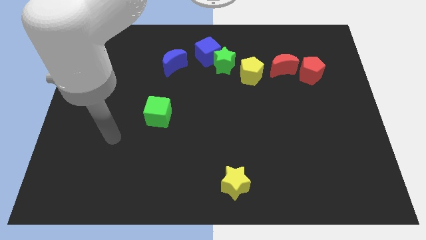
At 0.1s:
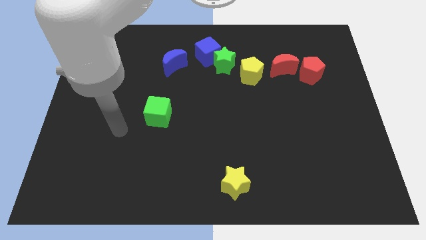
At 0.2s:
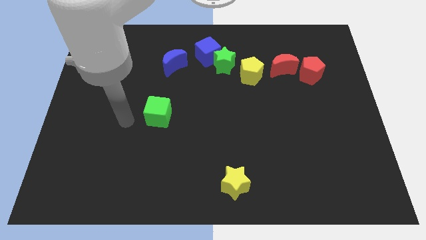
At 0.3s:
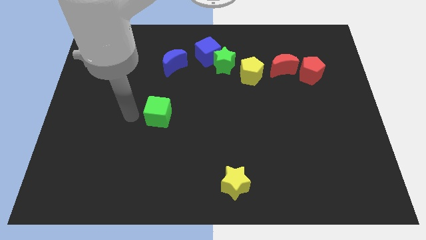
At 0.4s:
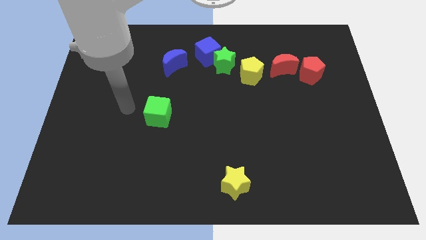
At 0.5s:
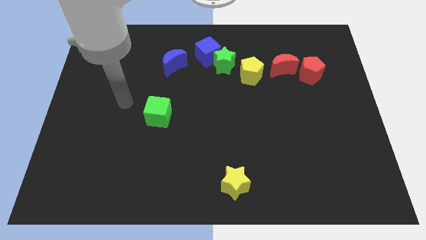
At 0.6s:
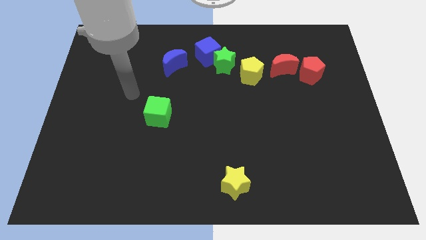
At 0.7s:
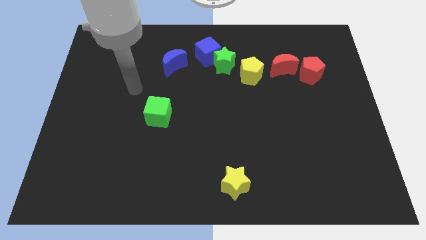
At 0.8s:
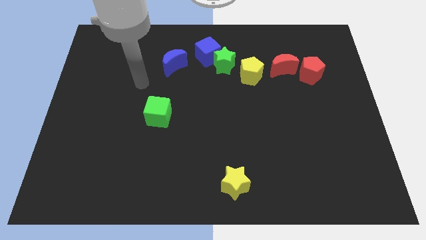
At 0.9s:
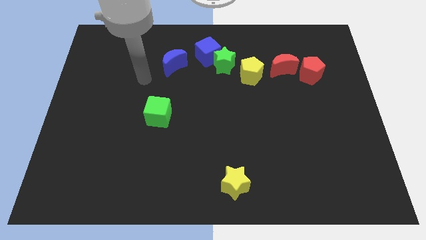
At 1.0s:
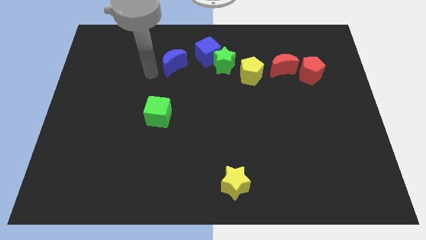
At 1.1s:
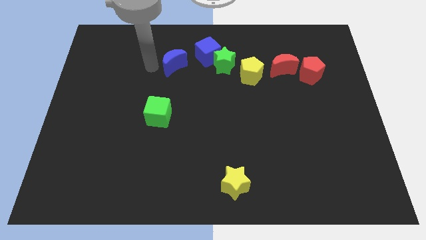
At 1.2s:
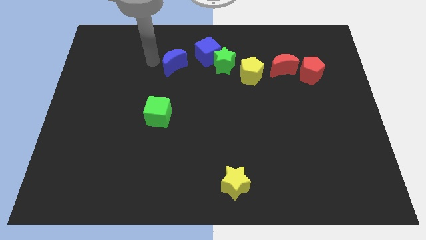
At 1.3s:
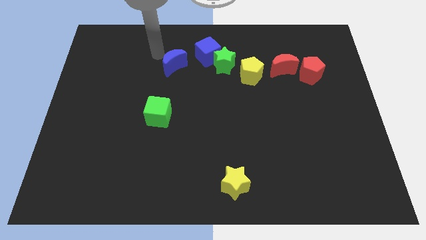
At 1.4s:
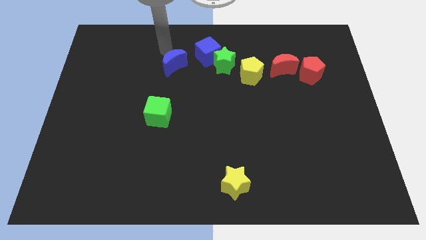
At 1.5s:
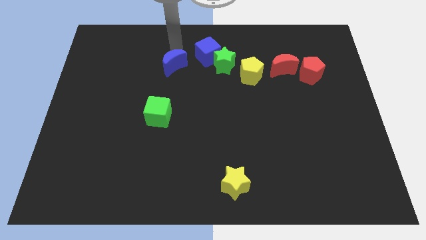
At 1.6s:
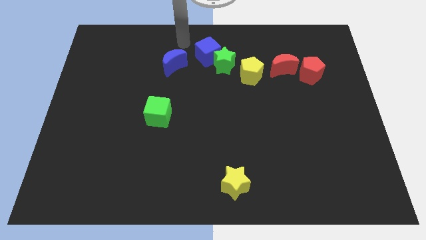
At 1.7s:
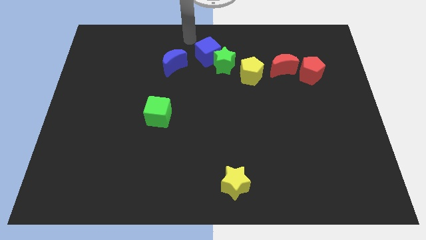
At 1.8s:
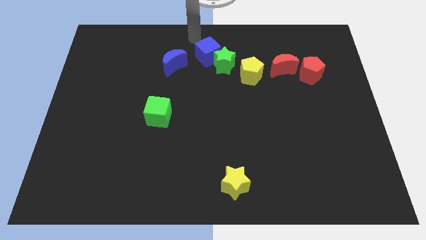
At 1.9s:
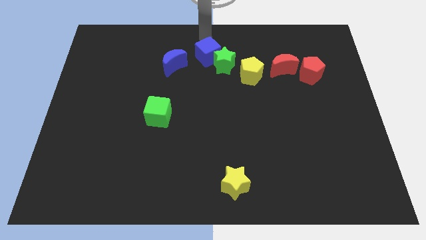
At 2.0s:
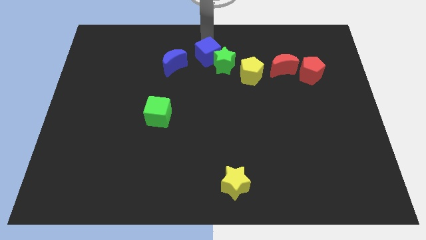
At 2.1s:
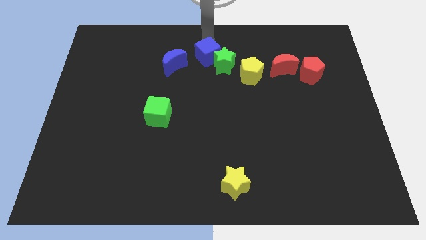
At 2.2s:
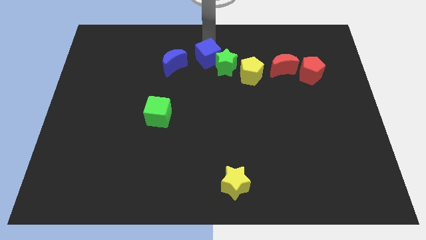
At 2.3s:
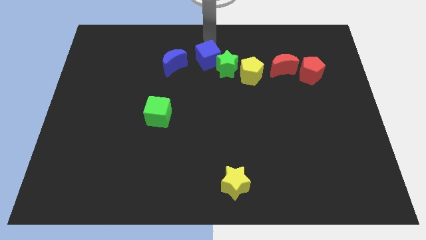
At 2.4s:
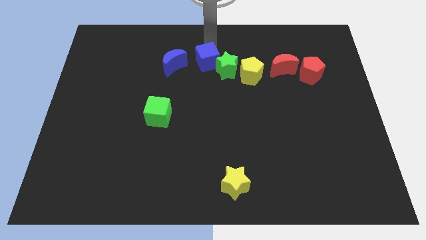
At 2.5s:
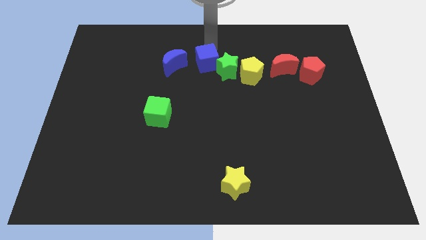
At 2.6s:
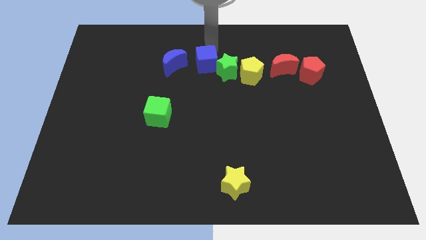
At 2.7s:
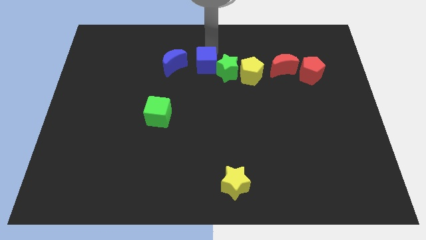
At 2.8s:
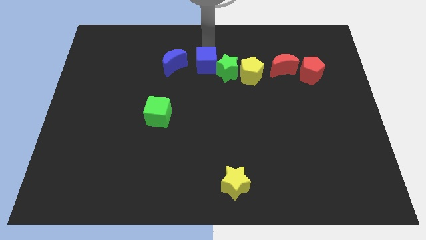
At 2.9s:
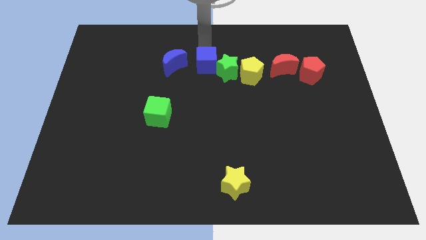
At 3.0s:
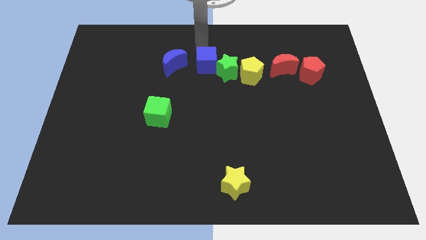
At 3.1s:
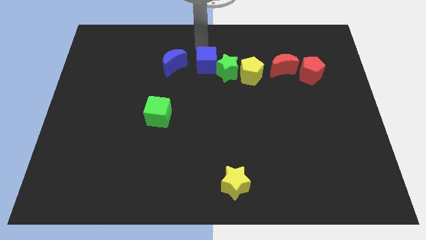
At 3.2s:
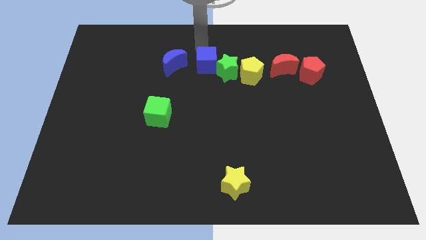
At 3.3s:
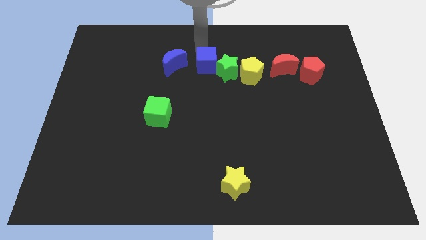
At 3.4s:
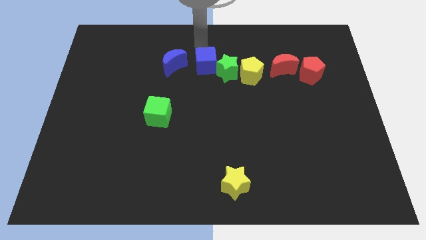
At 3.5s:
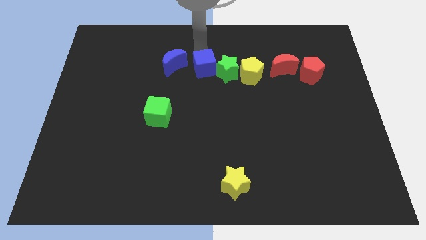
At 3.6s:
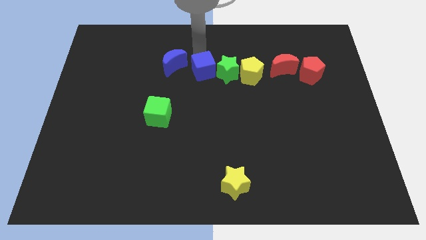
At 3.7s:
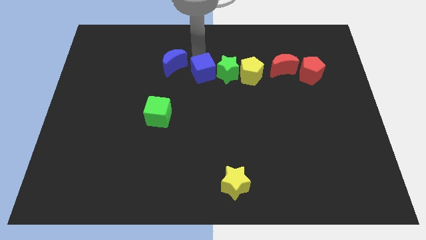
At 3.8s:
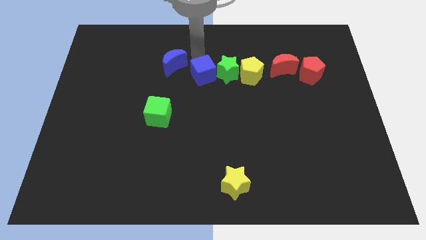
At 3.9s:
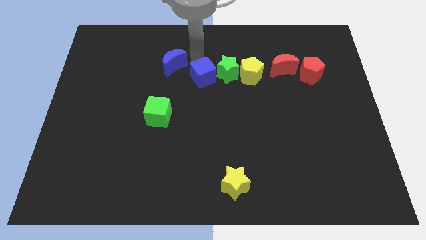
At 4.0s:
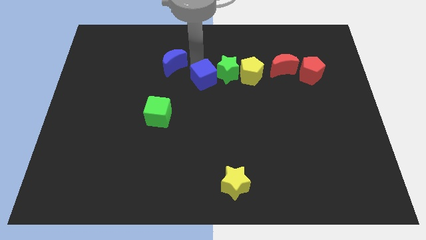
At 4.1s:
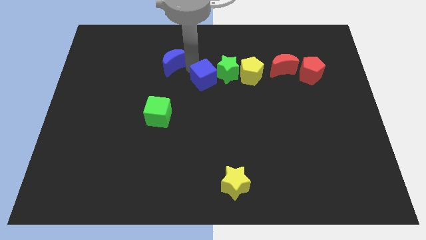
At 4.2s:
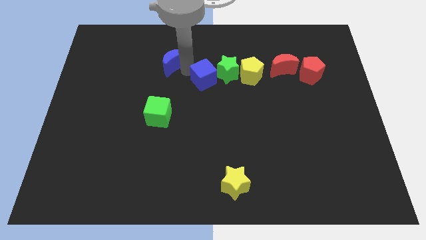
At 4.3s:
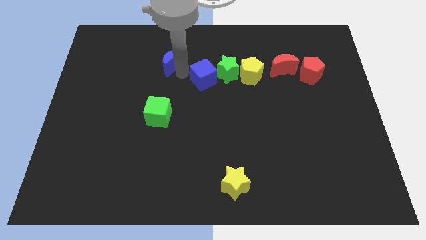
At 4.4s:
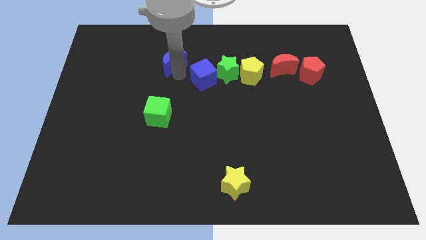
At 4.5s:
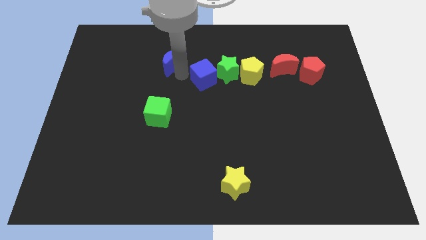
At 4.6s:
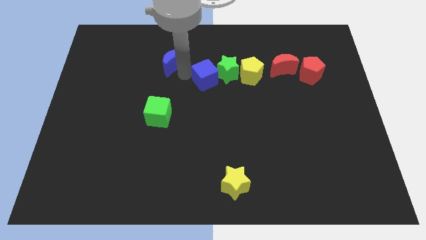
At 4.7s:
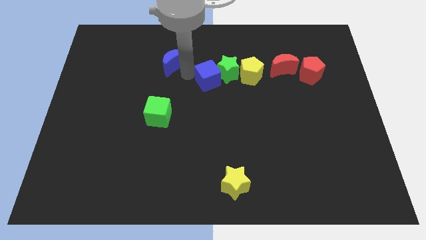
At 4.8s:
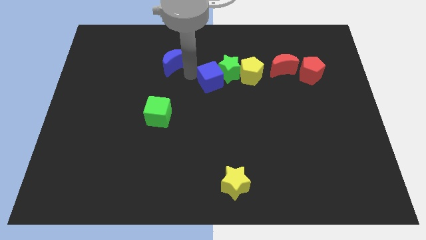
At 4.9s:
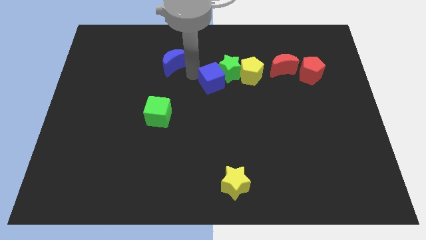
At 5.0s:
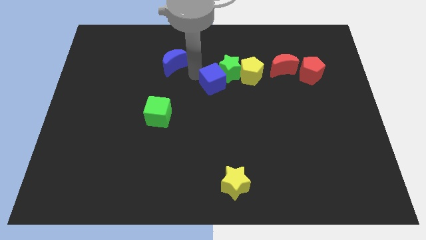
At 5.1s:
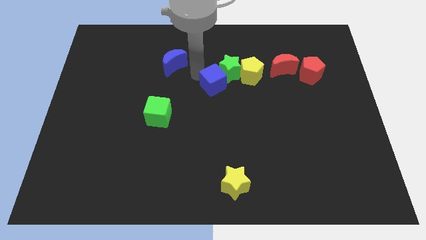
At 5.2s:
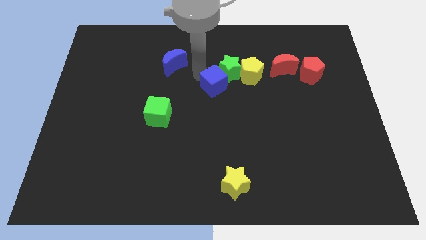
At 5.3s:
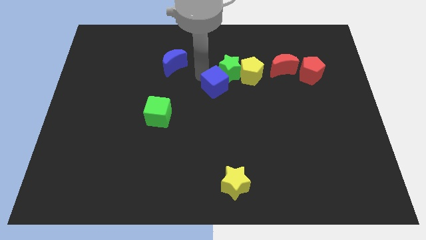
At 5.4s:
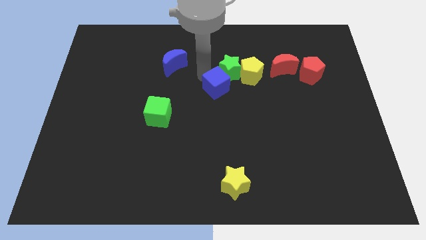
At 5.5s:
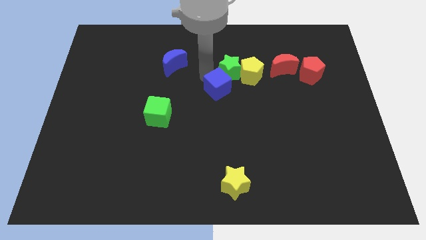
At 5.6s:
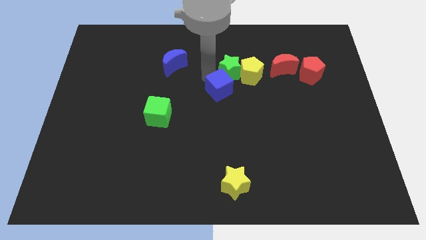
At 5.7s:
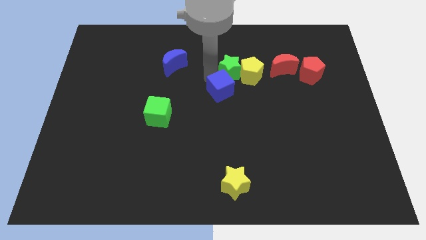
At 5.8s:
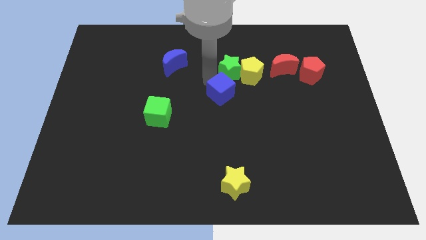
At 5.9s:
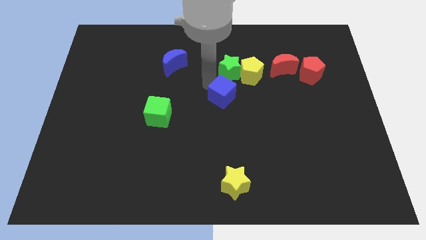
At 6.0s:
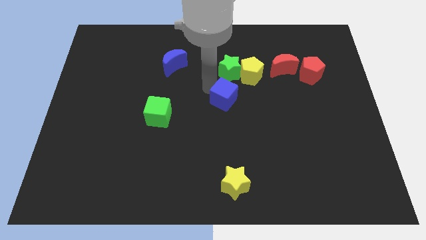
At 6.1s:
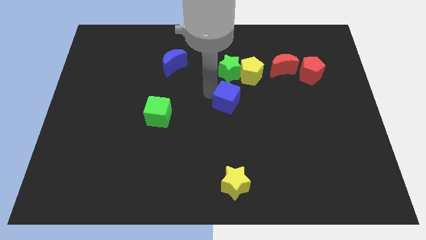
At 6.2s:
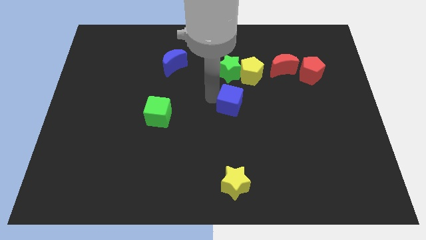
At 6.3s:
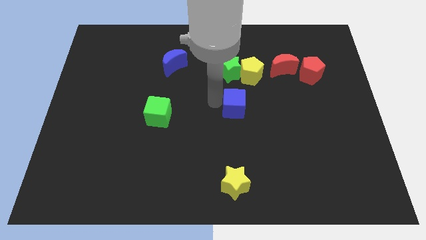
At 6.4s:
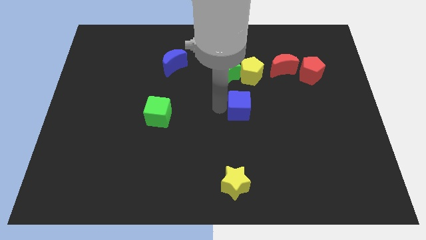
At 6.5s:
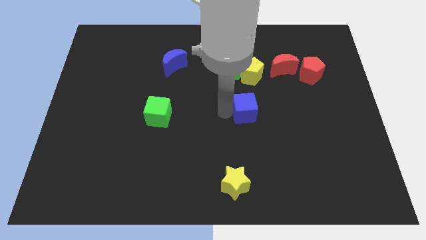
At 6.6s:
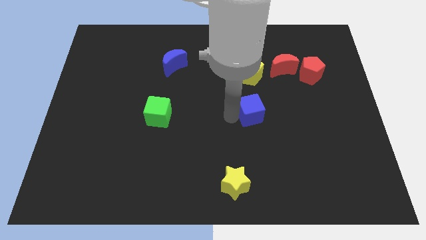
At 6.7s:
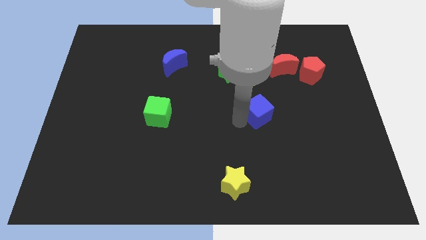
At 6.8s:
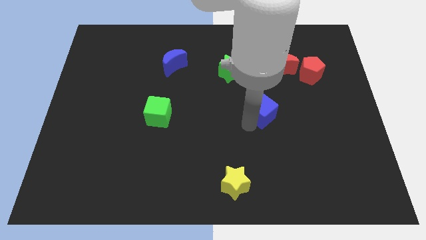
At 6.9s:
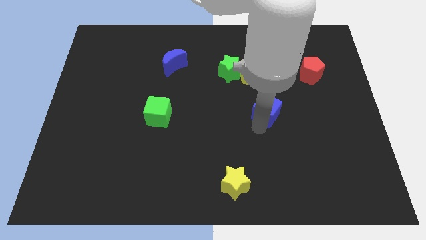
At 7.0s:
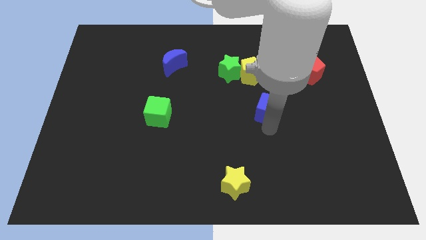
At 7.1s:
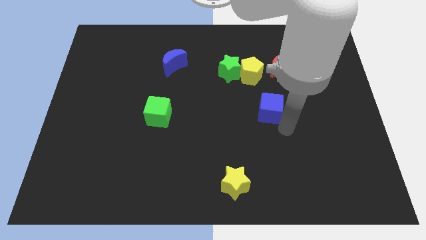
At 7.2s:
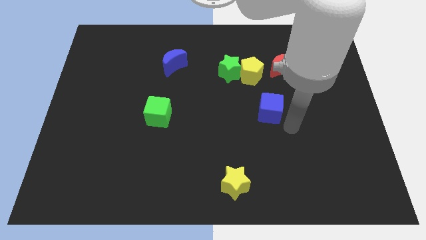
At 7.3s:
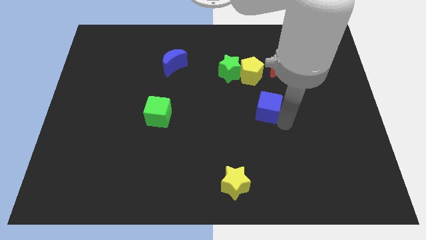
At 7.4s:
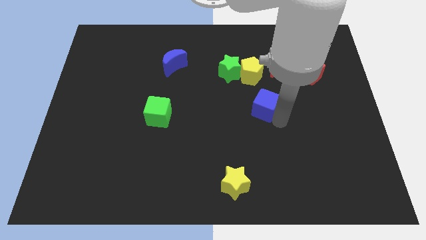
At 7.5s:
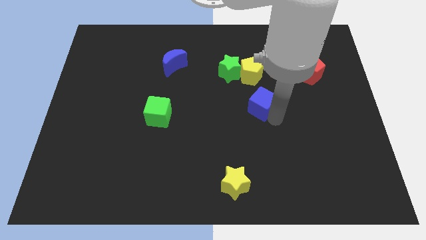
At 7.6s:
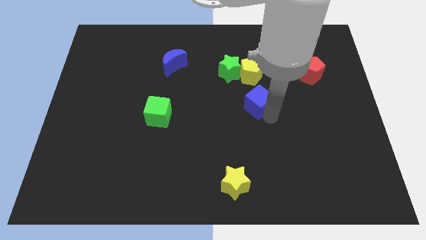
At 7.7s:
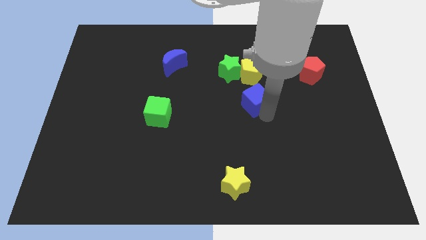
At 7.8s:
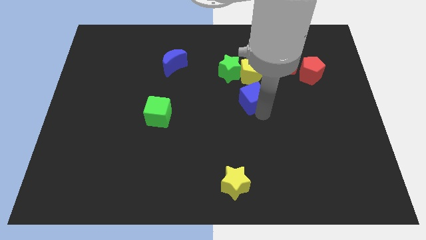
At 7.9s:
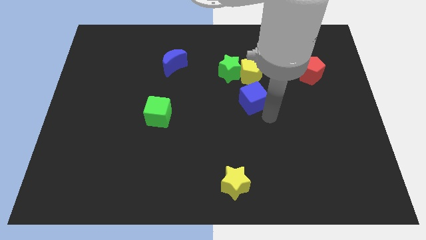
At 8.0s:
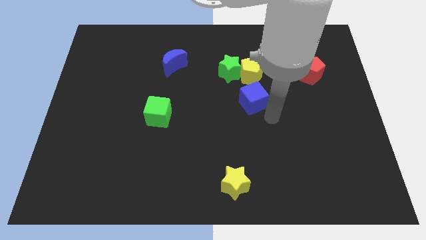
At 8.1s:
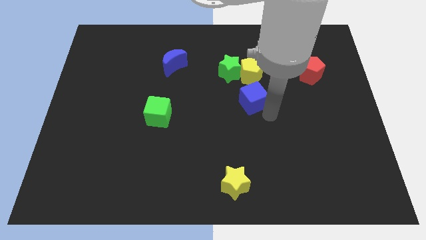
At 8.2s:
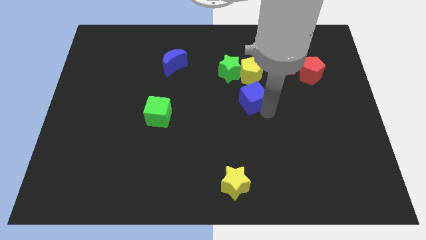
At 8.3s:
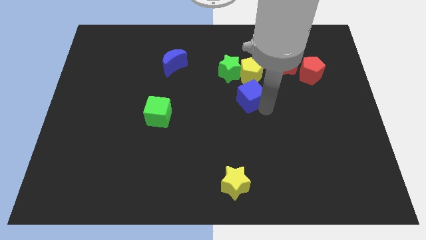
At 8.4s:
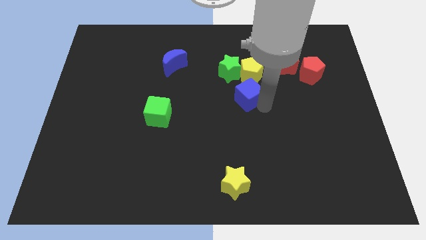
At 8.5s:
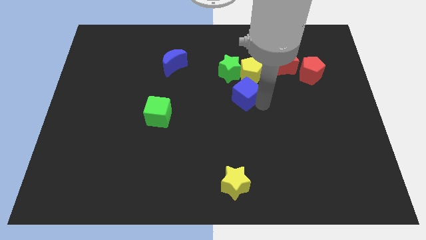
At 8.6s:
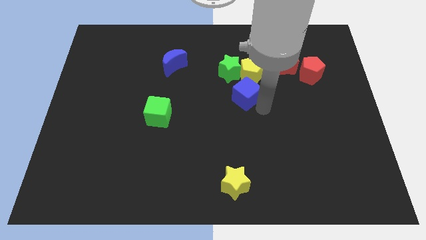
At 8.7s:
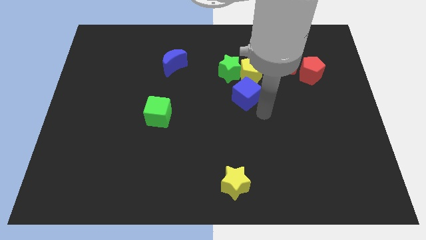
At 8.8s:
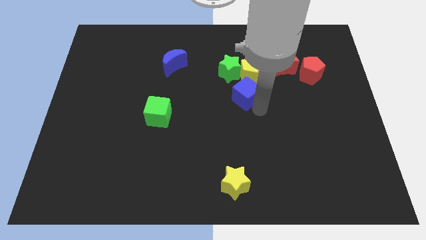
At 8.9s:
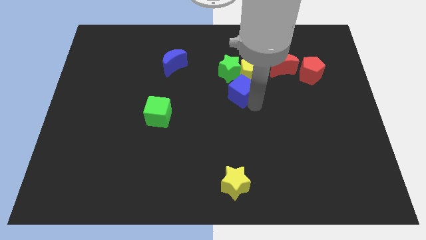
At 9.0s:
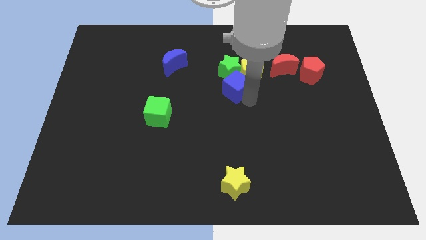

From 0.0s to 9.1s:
put the blue cube next to the yellow pentagon
